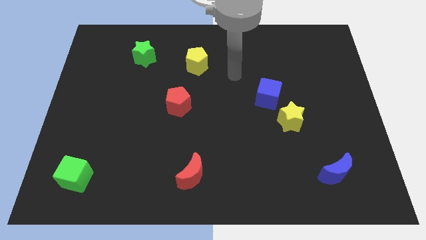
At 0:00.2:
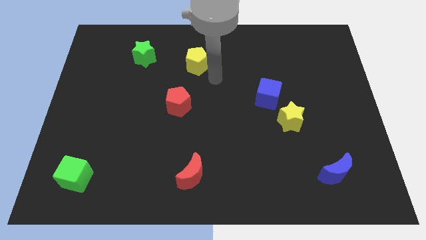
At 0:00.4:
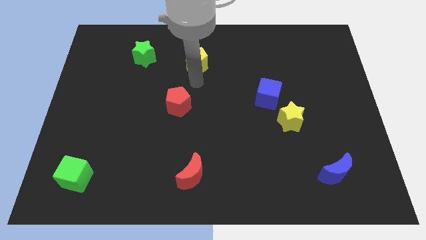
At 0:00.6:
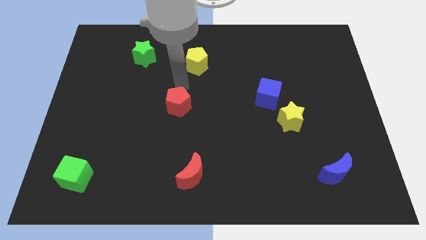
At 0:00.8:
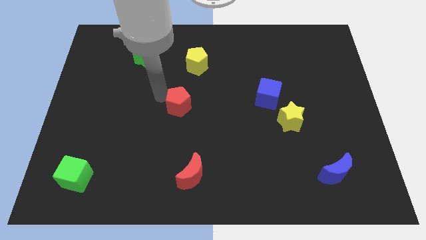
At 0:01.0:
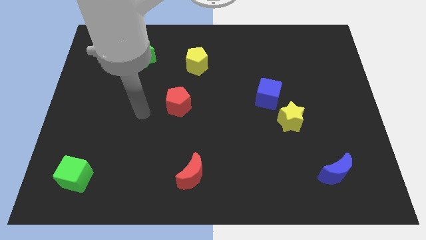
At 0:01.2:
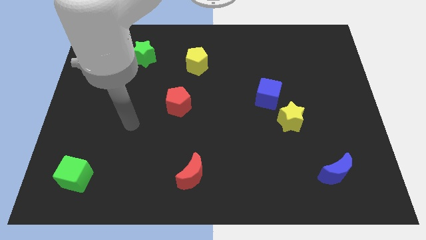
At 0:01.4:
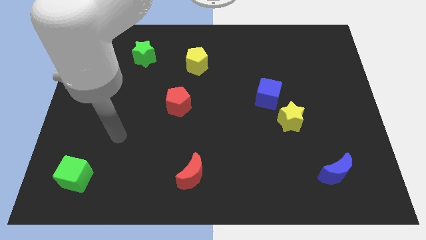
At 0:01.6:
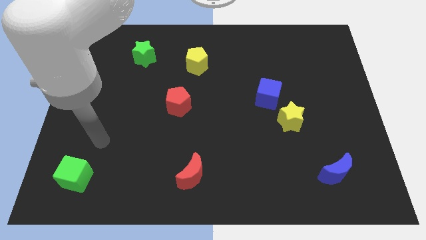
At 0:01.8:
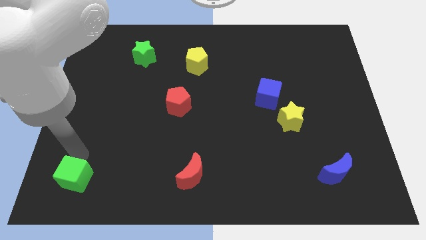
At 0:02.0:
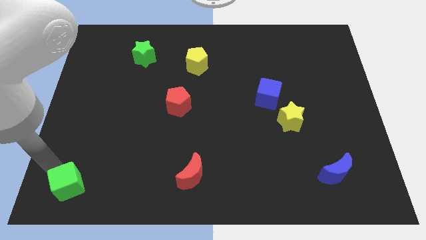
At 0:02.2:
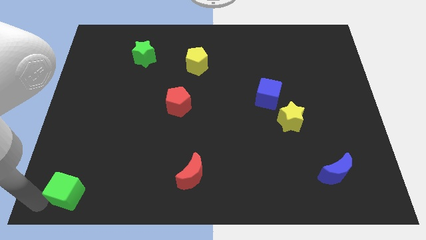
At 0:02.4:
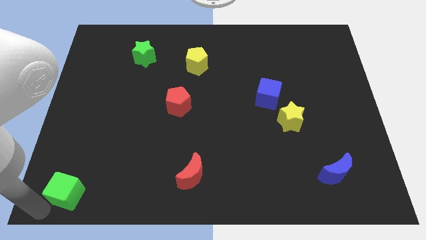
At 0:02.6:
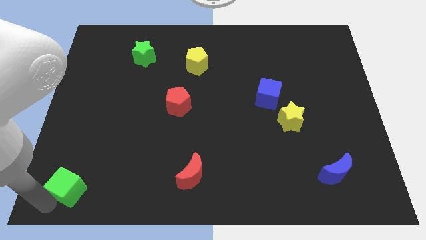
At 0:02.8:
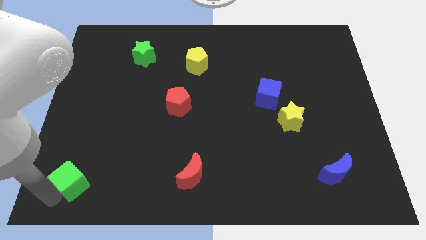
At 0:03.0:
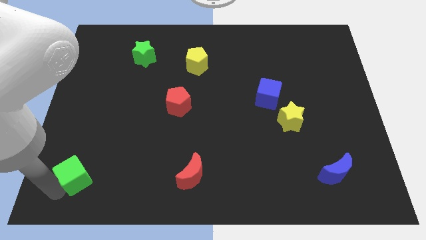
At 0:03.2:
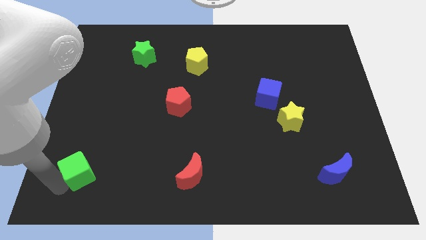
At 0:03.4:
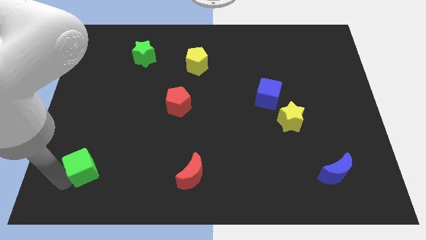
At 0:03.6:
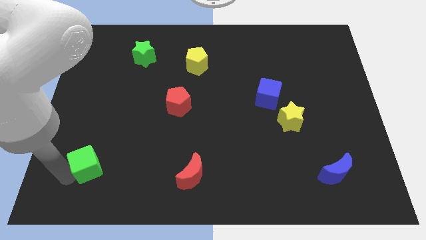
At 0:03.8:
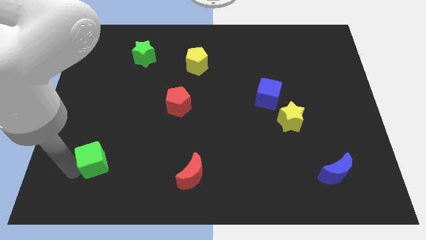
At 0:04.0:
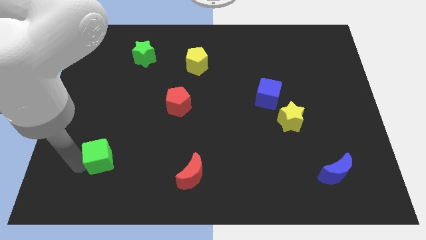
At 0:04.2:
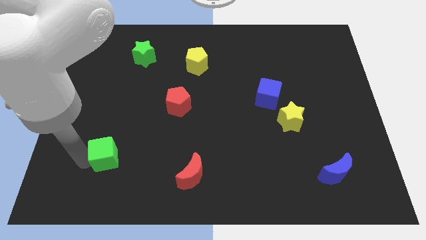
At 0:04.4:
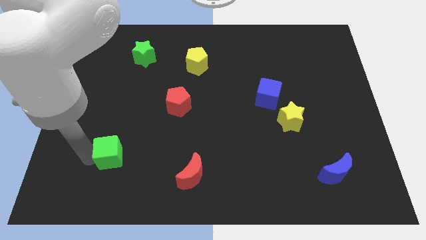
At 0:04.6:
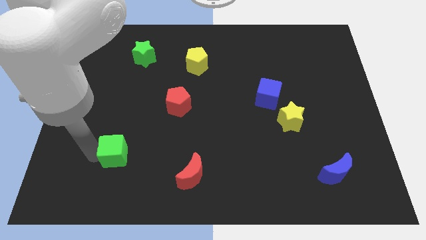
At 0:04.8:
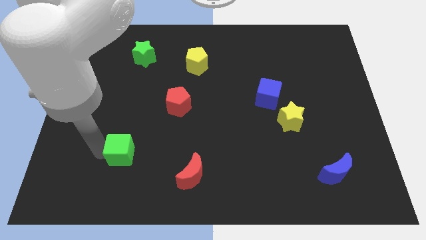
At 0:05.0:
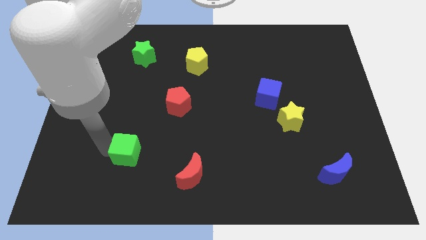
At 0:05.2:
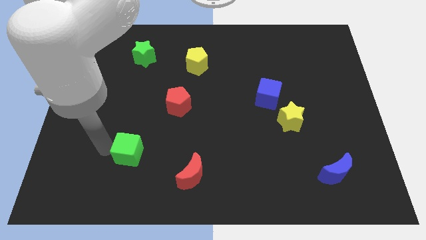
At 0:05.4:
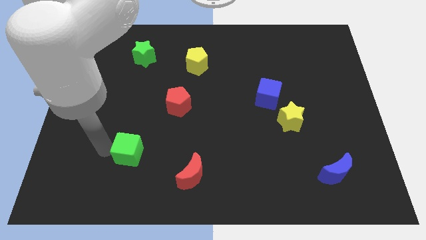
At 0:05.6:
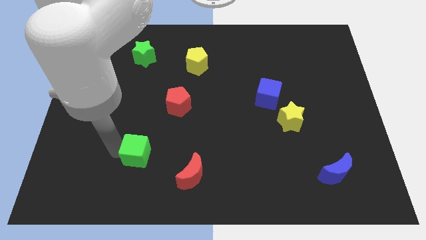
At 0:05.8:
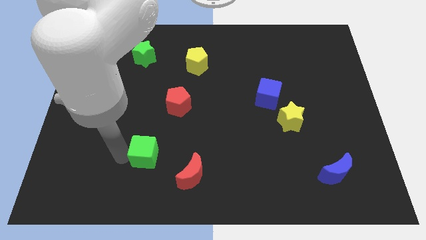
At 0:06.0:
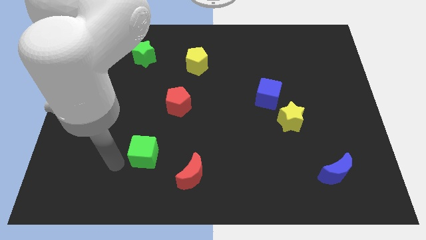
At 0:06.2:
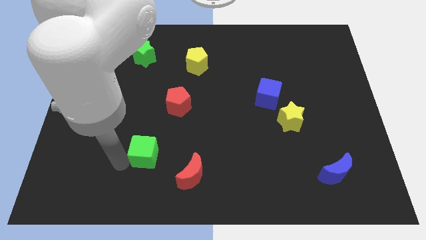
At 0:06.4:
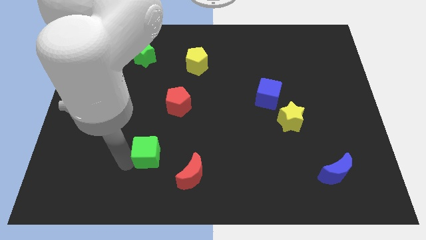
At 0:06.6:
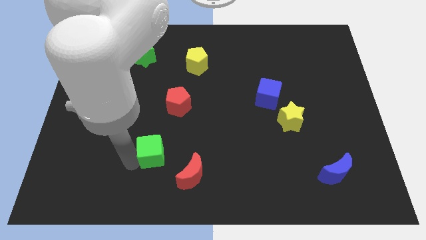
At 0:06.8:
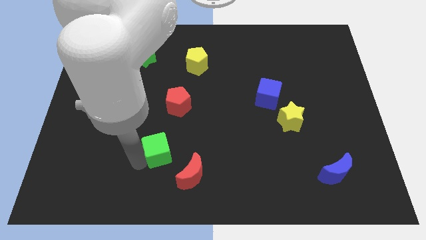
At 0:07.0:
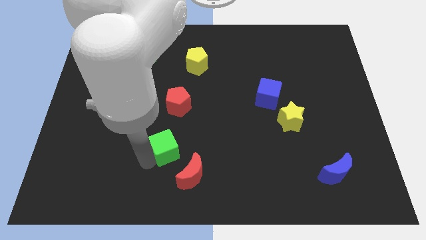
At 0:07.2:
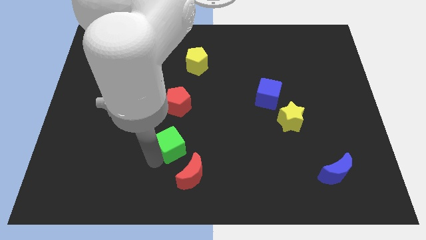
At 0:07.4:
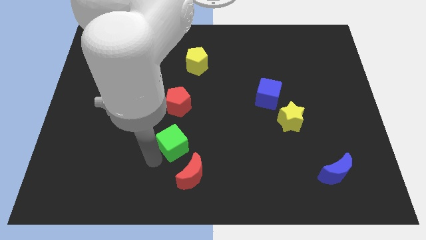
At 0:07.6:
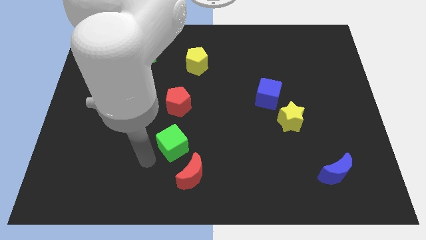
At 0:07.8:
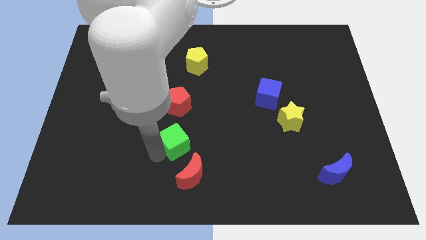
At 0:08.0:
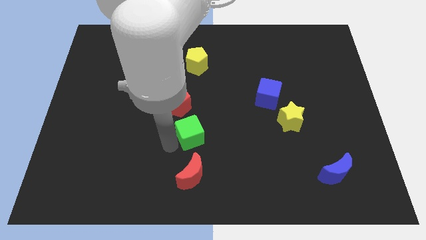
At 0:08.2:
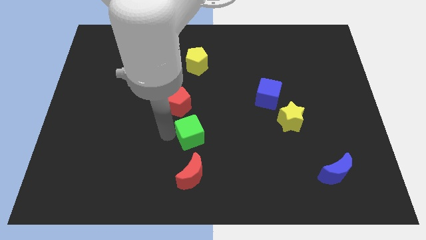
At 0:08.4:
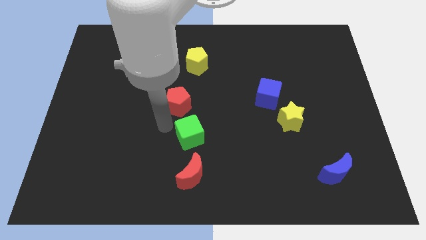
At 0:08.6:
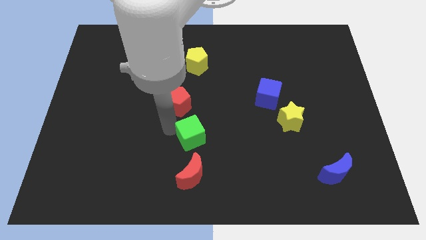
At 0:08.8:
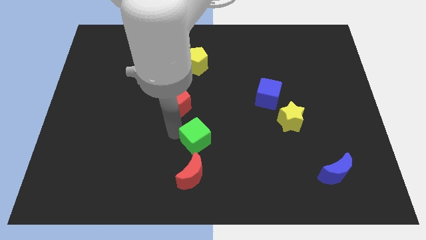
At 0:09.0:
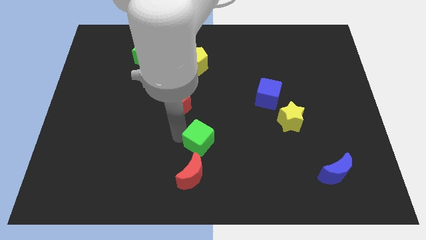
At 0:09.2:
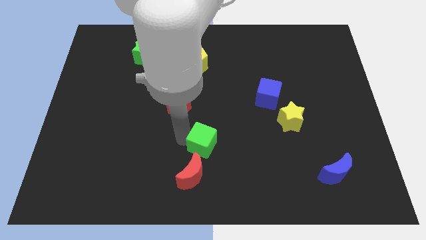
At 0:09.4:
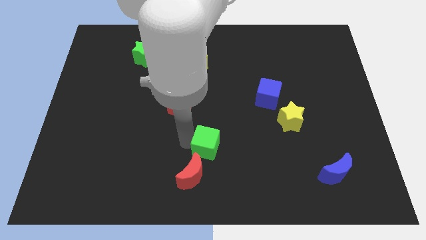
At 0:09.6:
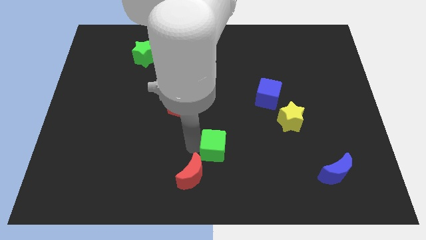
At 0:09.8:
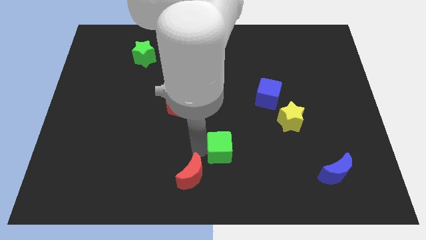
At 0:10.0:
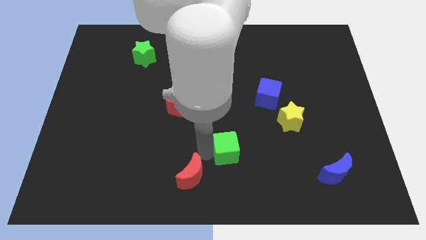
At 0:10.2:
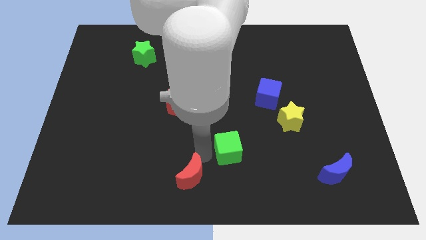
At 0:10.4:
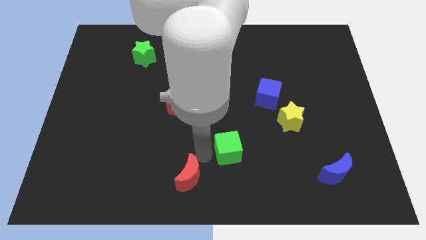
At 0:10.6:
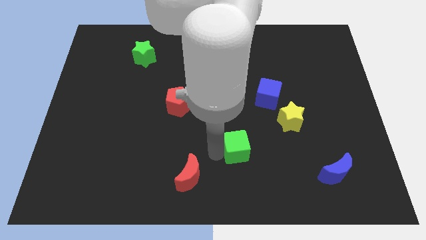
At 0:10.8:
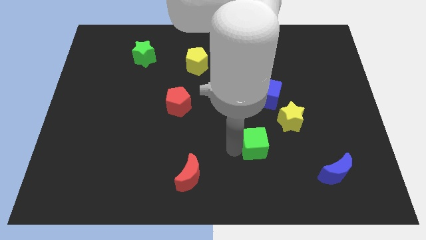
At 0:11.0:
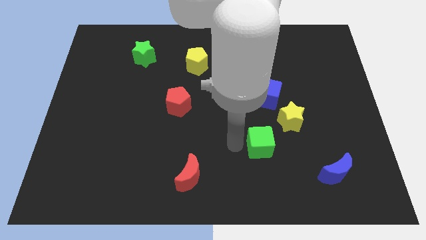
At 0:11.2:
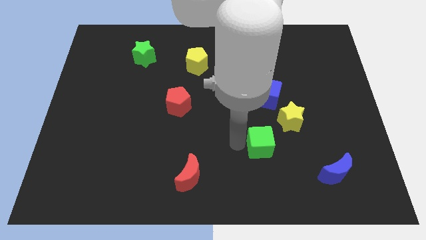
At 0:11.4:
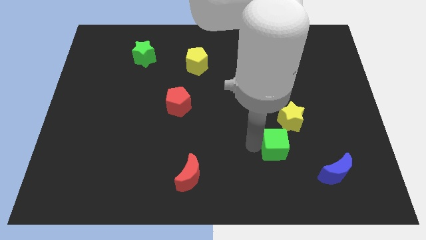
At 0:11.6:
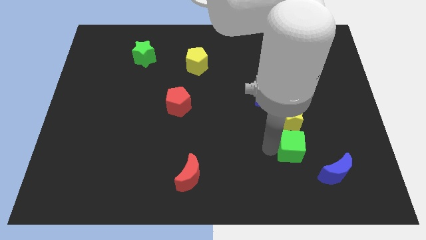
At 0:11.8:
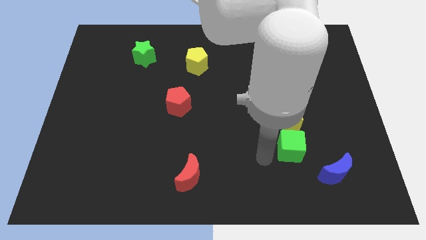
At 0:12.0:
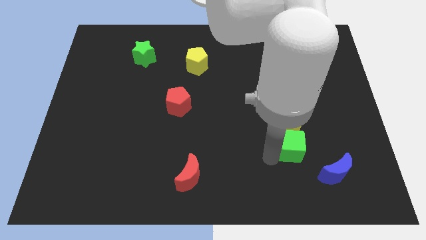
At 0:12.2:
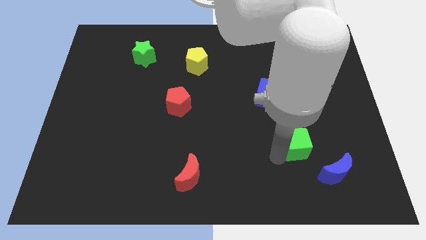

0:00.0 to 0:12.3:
move the green cube to the bottom right of the yellow star

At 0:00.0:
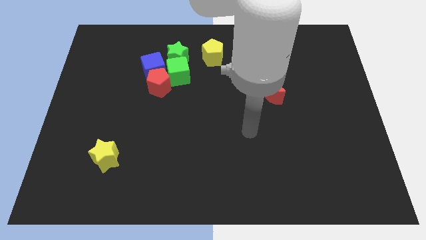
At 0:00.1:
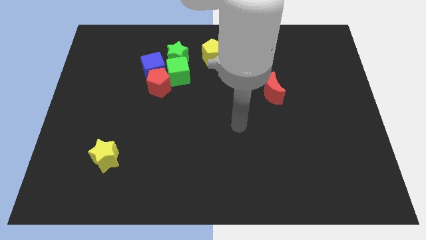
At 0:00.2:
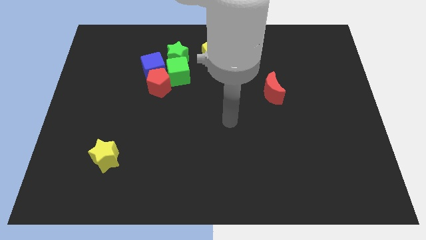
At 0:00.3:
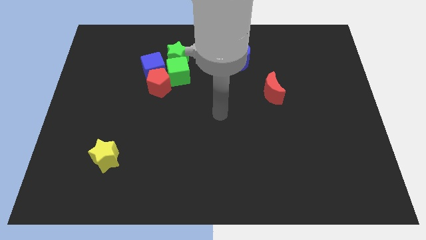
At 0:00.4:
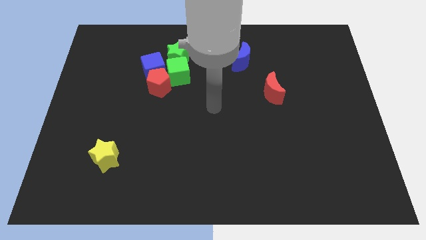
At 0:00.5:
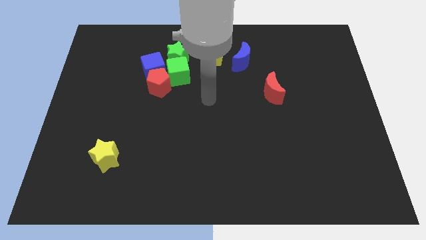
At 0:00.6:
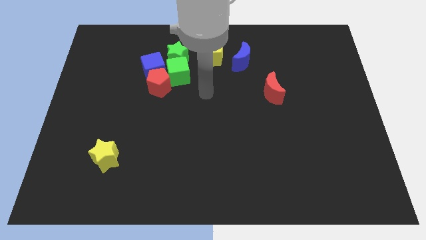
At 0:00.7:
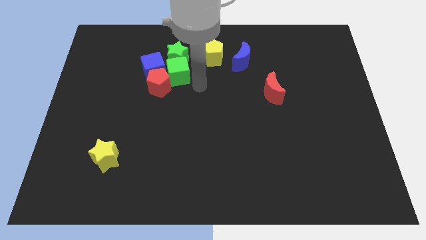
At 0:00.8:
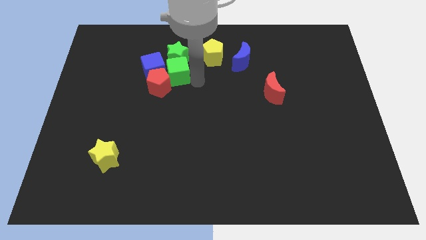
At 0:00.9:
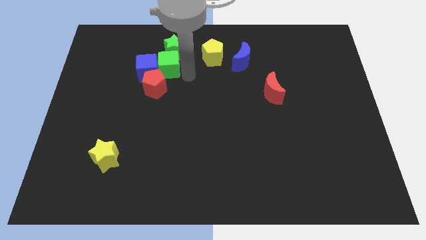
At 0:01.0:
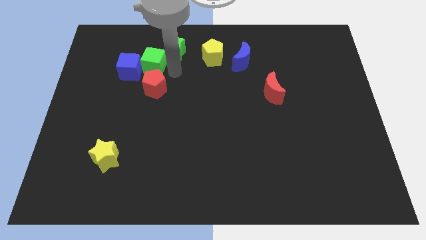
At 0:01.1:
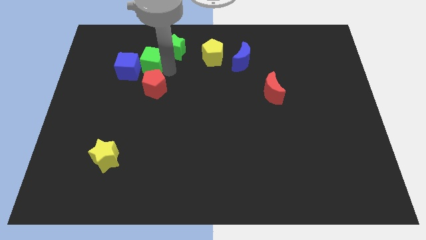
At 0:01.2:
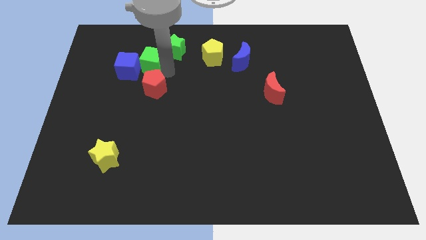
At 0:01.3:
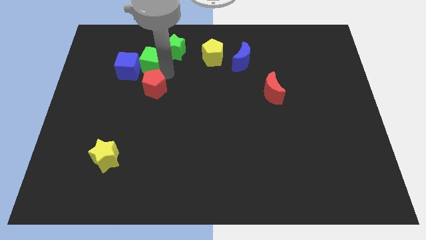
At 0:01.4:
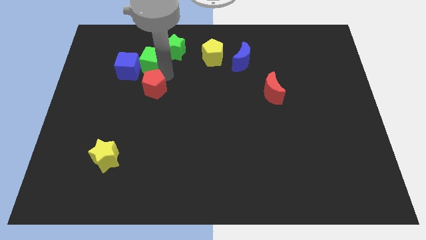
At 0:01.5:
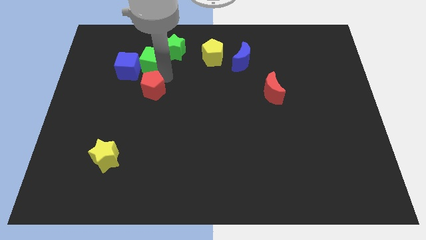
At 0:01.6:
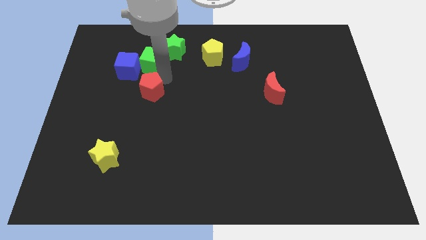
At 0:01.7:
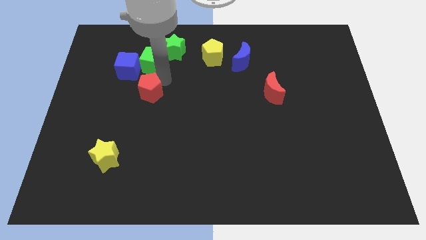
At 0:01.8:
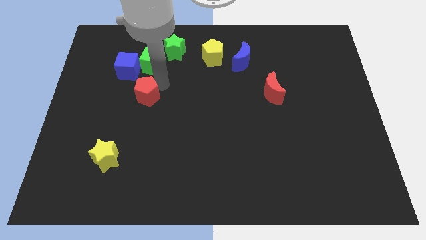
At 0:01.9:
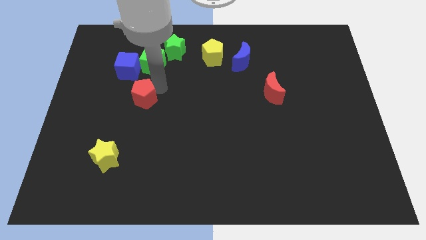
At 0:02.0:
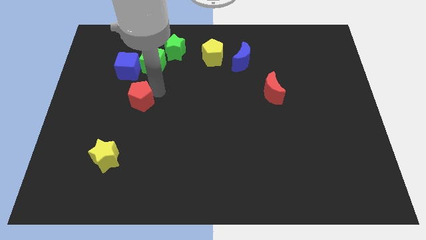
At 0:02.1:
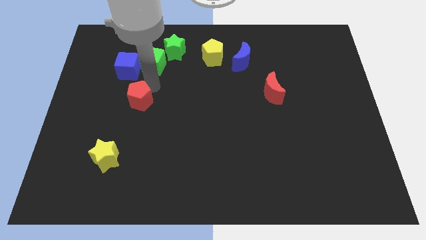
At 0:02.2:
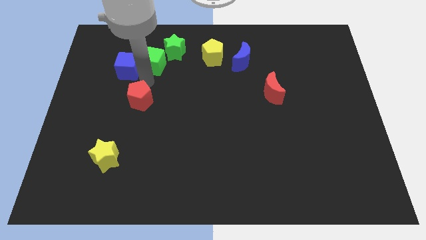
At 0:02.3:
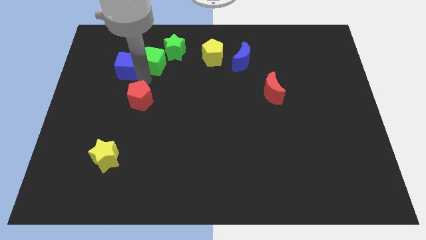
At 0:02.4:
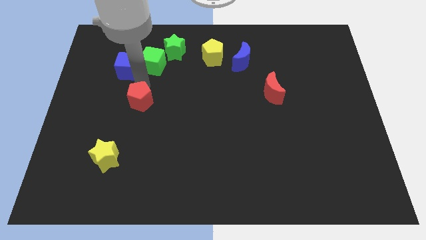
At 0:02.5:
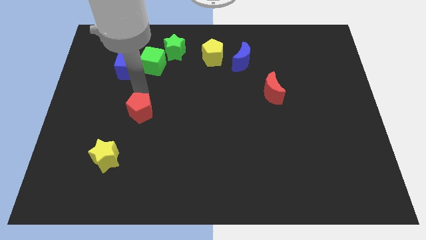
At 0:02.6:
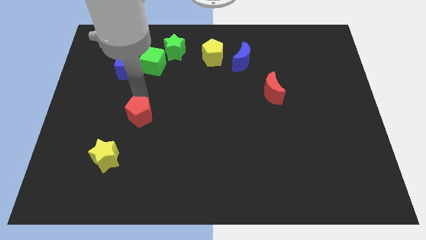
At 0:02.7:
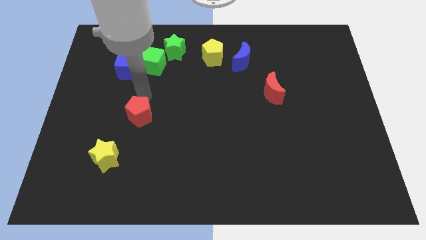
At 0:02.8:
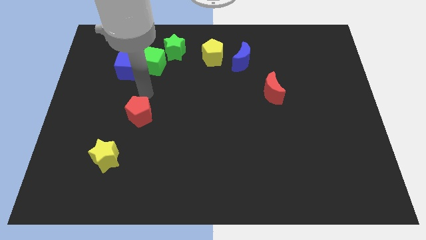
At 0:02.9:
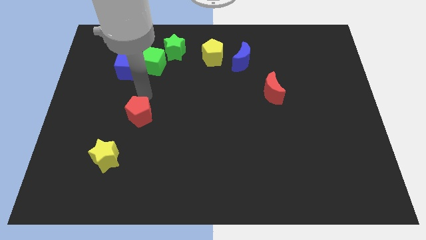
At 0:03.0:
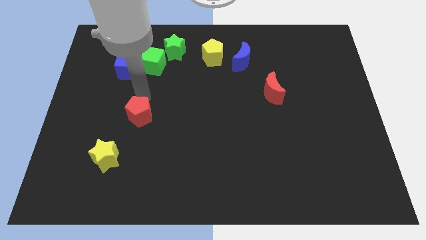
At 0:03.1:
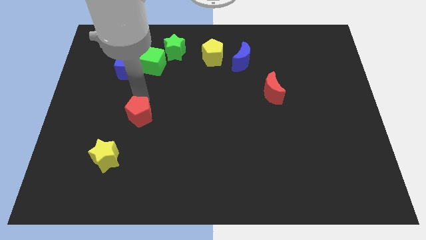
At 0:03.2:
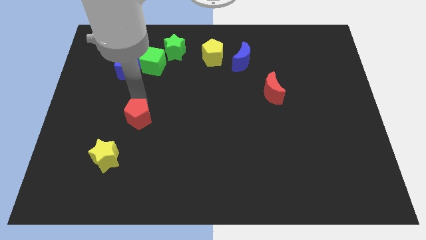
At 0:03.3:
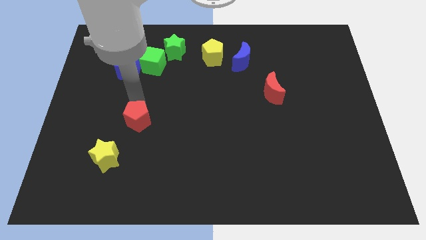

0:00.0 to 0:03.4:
put the red pentagon to the top right side of the yellow star
